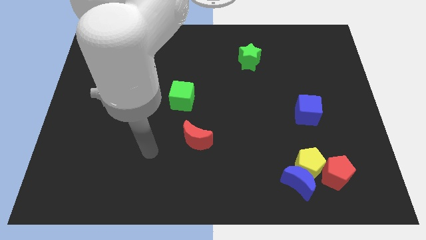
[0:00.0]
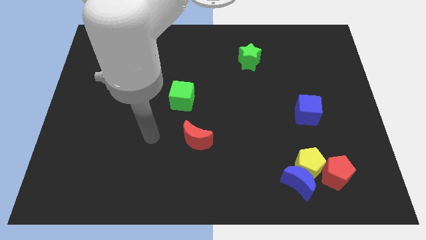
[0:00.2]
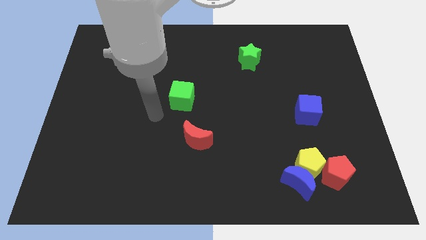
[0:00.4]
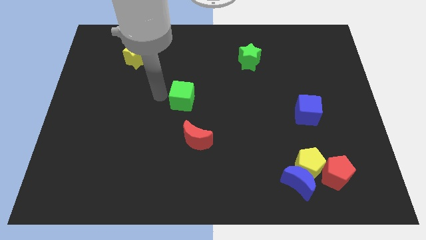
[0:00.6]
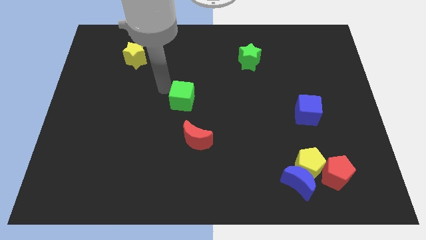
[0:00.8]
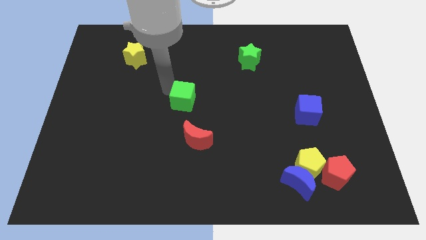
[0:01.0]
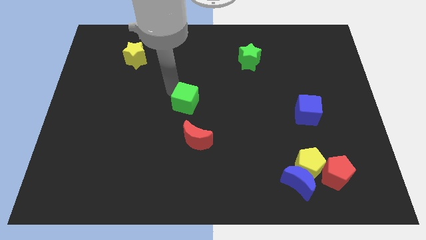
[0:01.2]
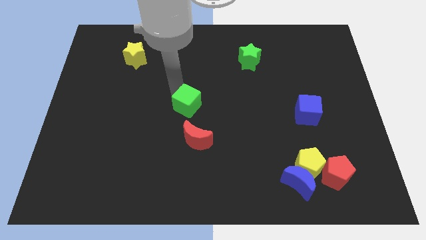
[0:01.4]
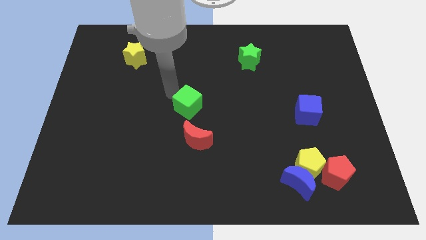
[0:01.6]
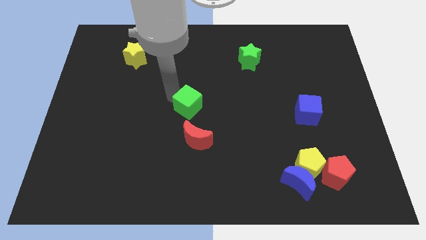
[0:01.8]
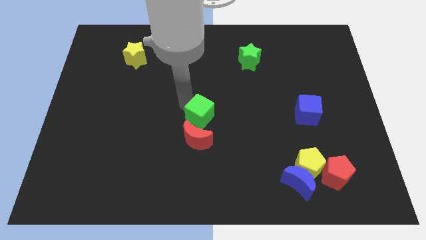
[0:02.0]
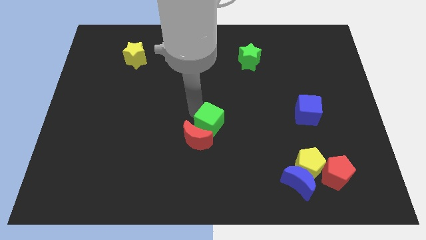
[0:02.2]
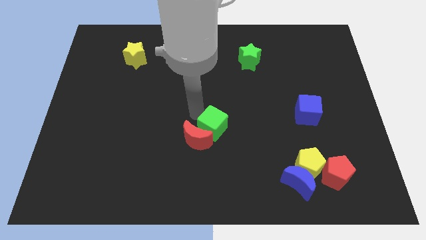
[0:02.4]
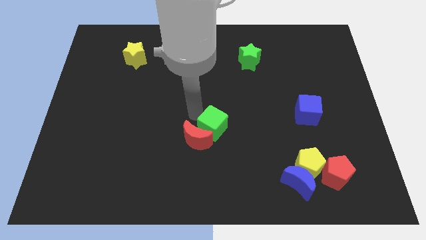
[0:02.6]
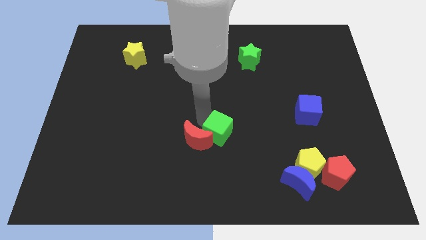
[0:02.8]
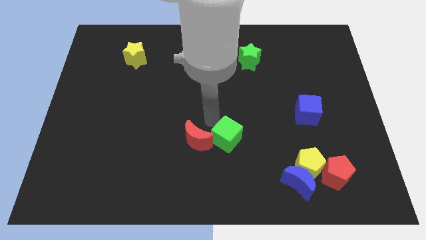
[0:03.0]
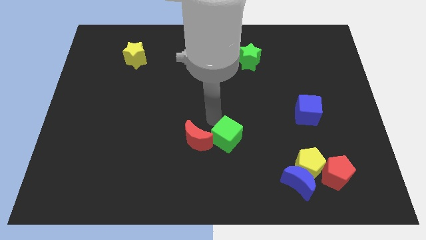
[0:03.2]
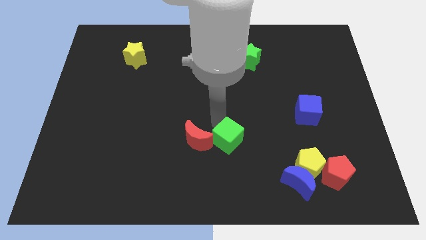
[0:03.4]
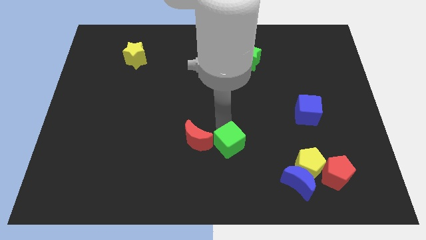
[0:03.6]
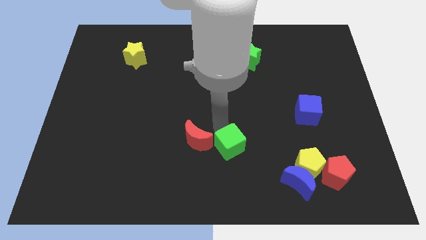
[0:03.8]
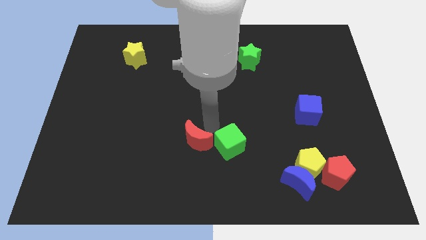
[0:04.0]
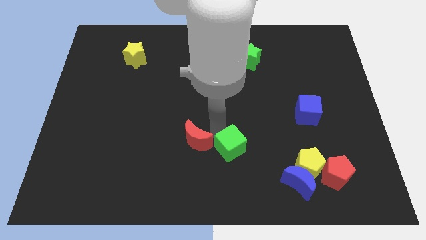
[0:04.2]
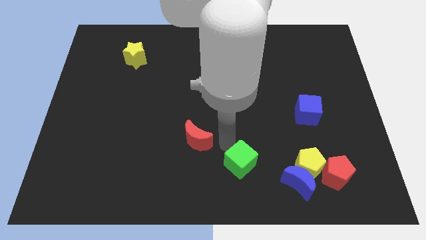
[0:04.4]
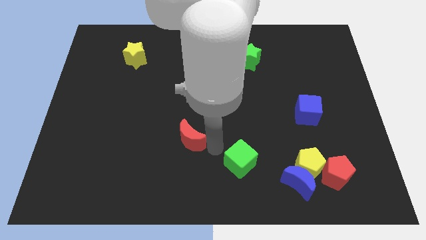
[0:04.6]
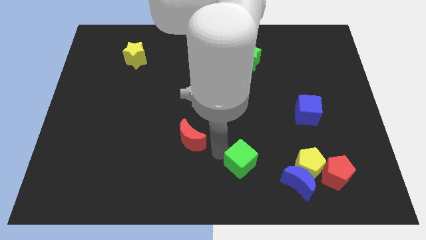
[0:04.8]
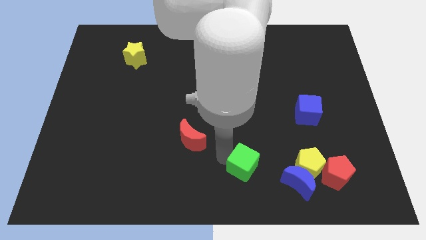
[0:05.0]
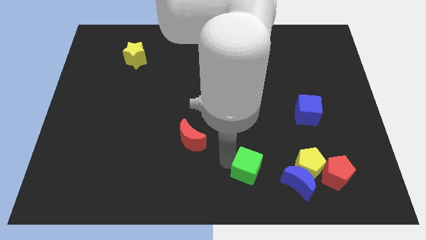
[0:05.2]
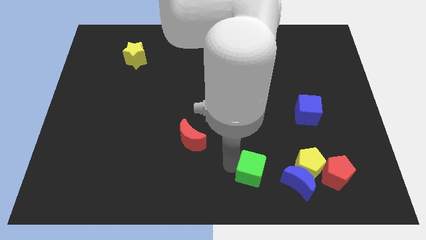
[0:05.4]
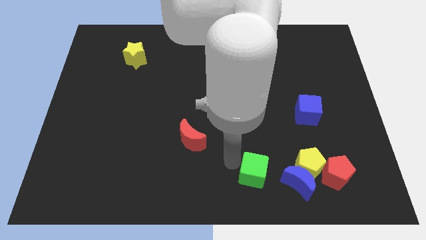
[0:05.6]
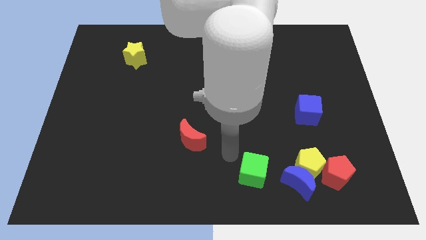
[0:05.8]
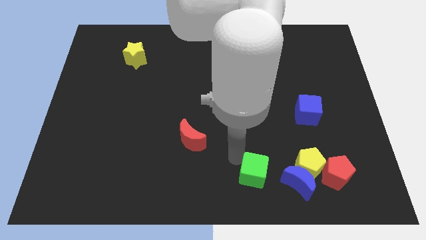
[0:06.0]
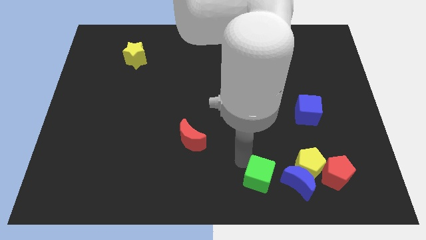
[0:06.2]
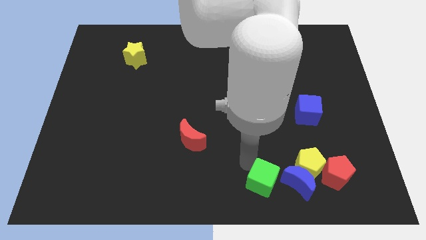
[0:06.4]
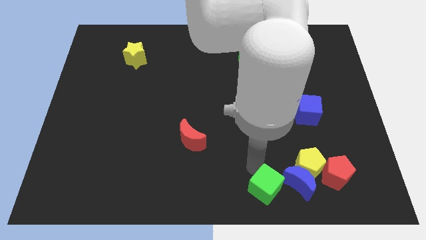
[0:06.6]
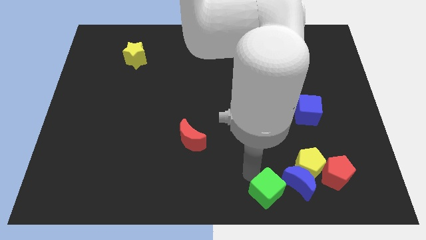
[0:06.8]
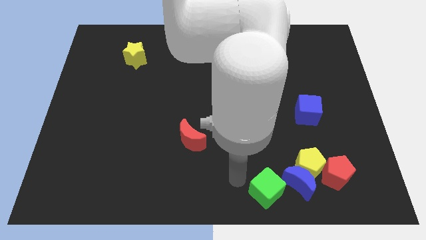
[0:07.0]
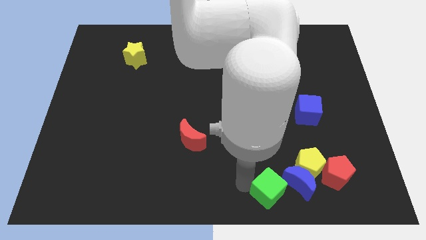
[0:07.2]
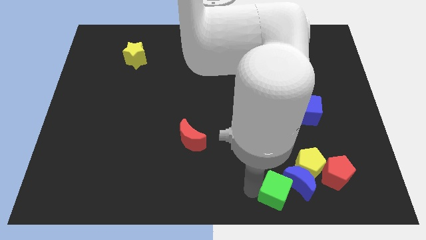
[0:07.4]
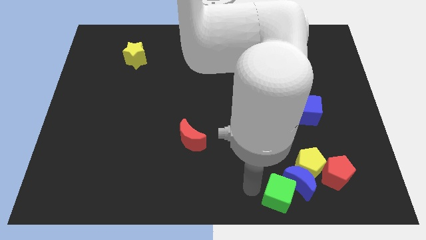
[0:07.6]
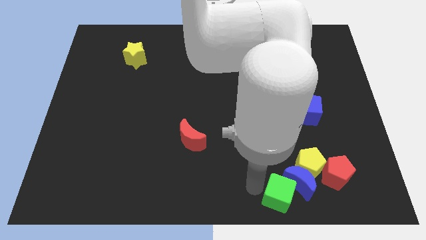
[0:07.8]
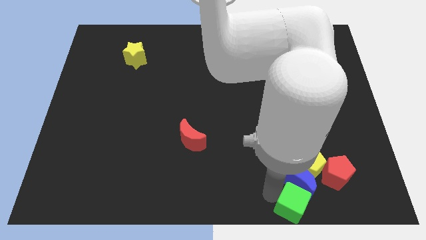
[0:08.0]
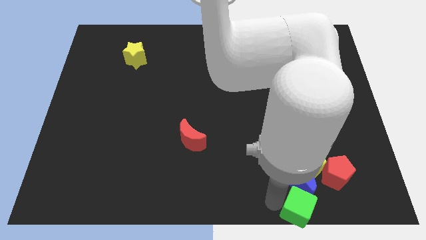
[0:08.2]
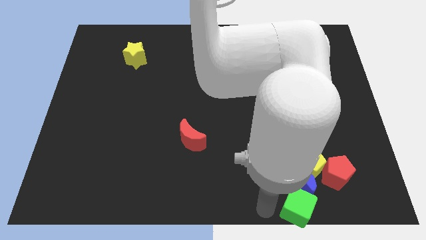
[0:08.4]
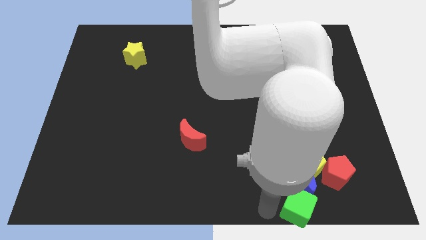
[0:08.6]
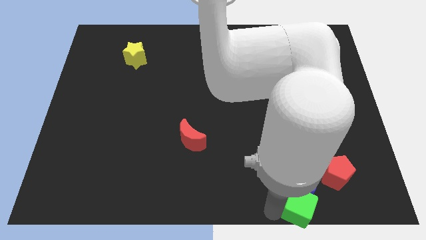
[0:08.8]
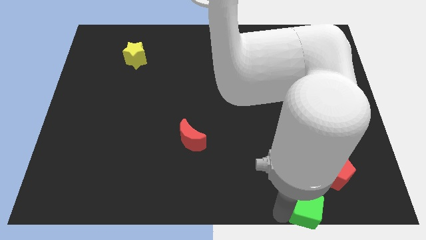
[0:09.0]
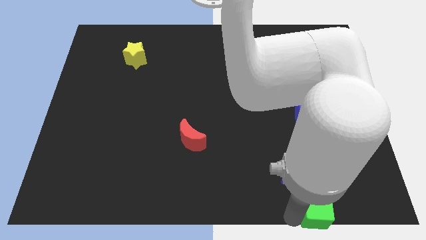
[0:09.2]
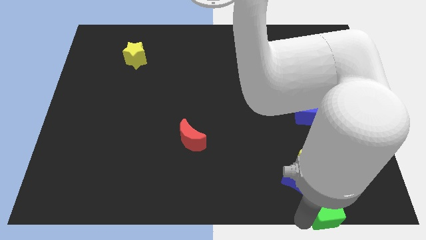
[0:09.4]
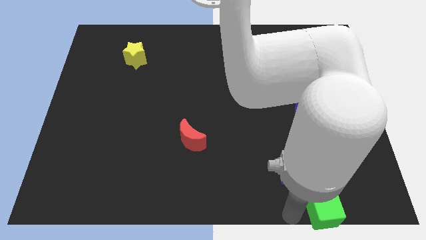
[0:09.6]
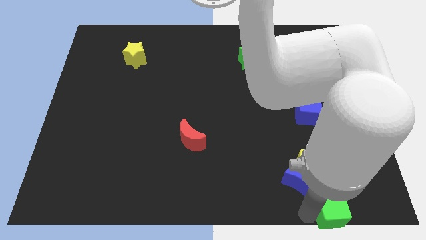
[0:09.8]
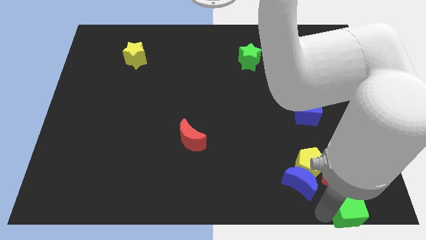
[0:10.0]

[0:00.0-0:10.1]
put the green cube to the bottom right

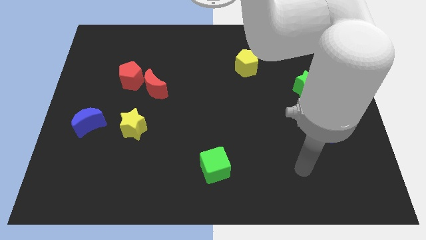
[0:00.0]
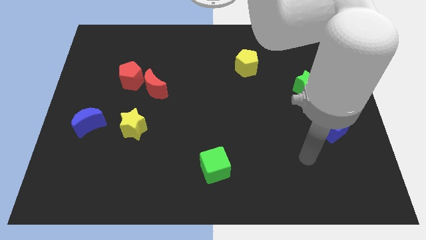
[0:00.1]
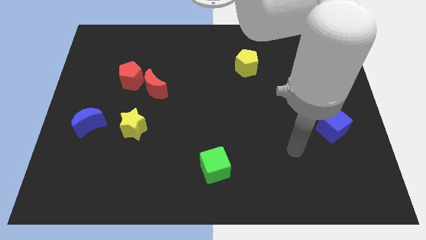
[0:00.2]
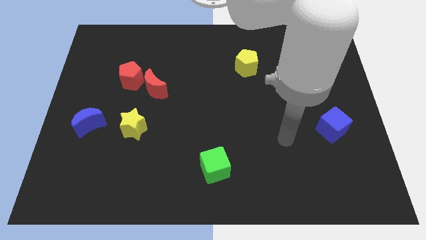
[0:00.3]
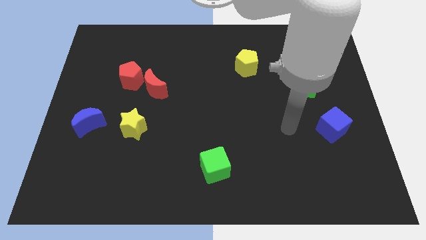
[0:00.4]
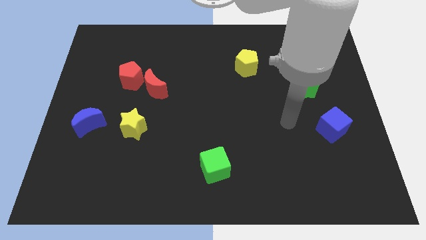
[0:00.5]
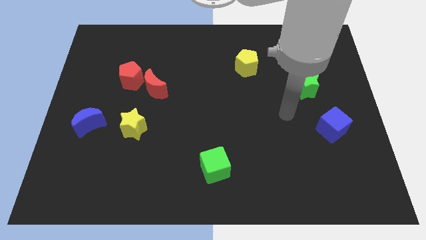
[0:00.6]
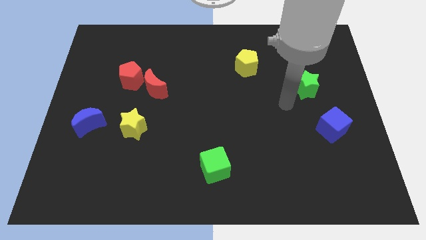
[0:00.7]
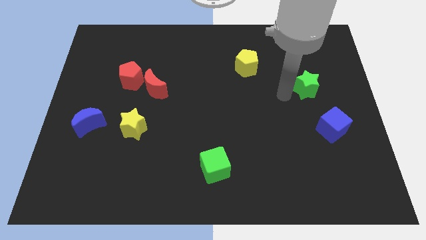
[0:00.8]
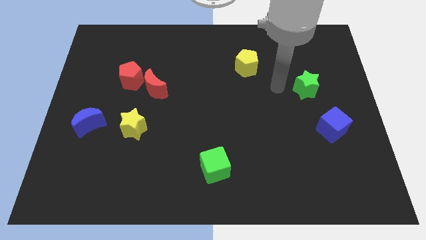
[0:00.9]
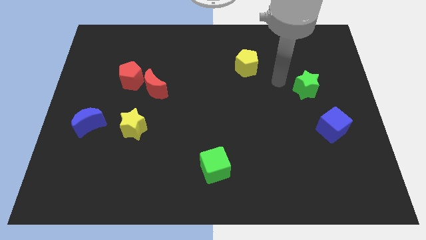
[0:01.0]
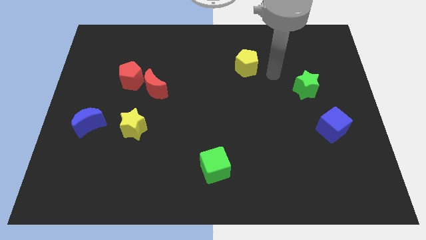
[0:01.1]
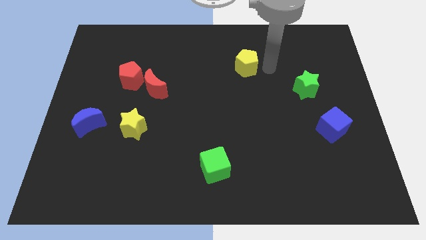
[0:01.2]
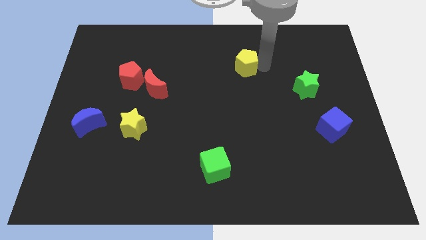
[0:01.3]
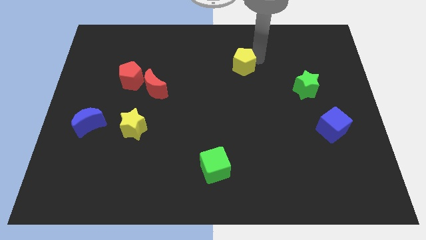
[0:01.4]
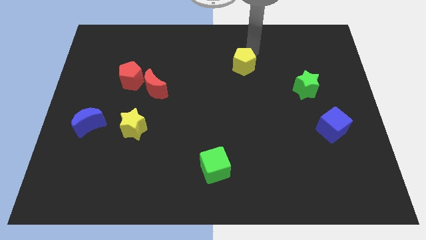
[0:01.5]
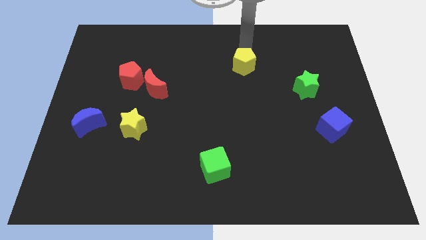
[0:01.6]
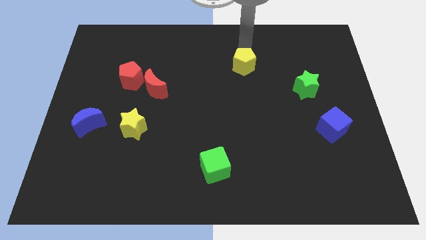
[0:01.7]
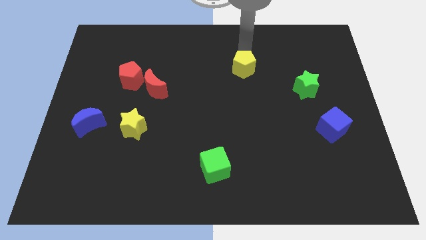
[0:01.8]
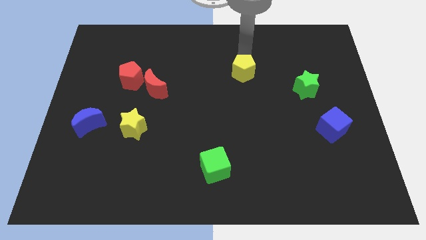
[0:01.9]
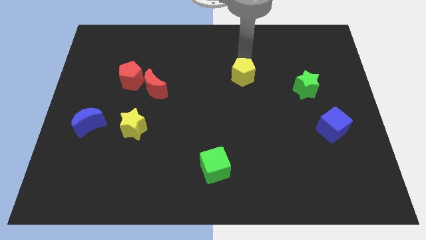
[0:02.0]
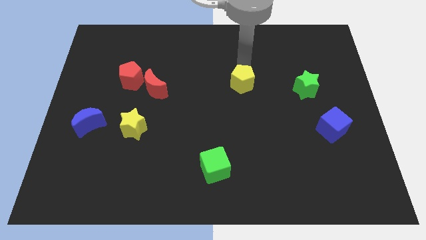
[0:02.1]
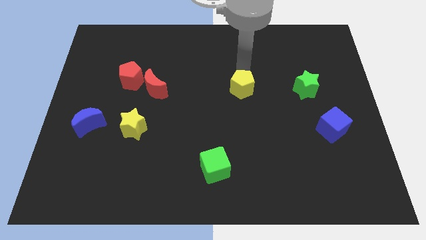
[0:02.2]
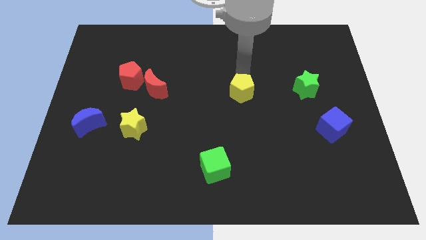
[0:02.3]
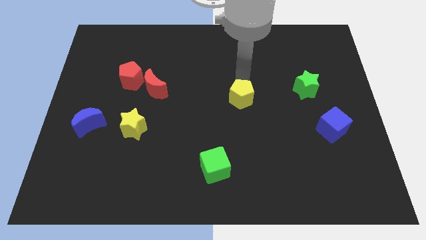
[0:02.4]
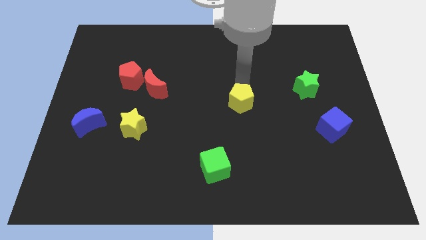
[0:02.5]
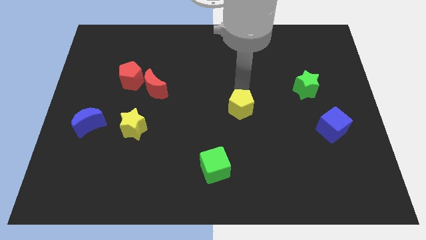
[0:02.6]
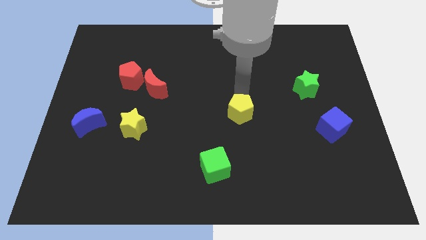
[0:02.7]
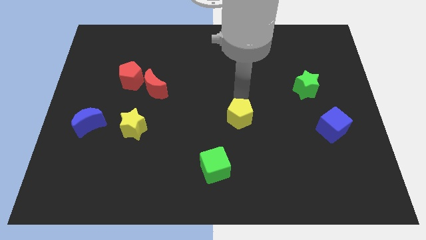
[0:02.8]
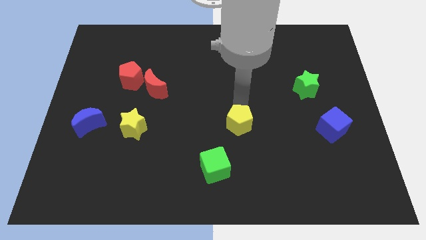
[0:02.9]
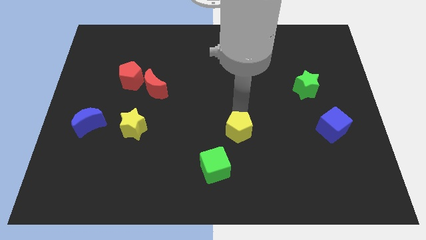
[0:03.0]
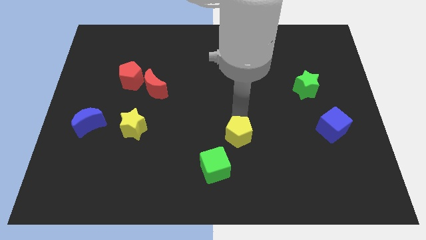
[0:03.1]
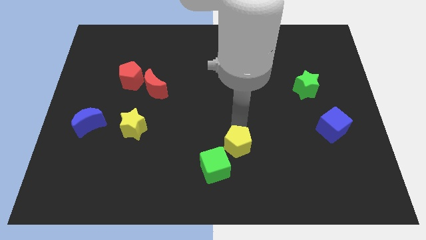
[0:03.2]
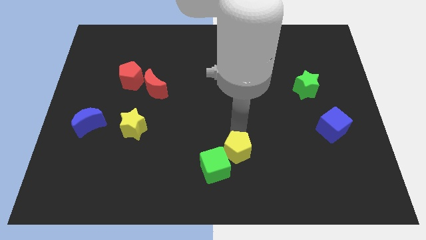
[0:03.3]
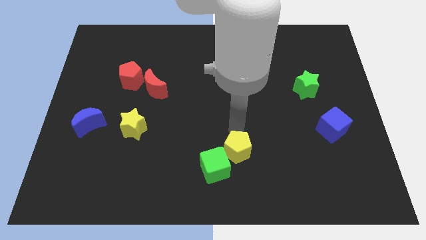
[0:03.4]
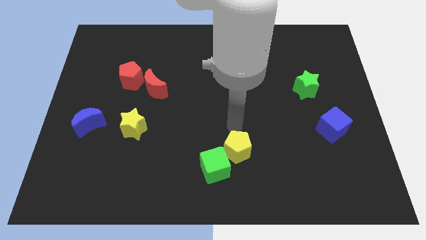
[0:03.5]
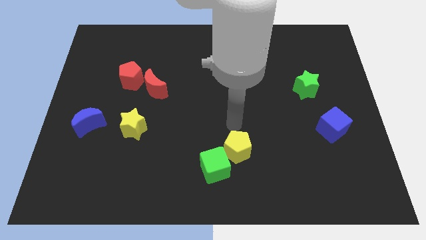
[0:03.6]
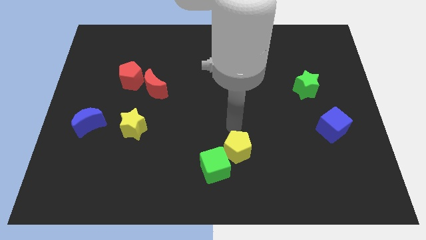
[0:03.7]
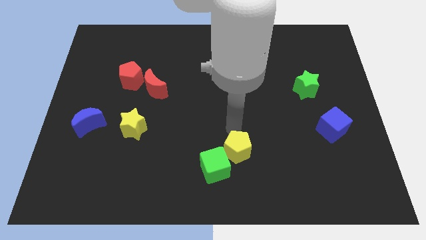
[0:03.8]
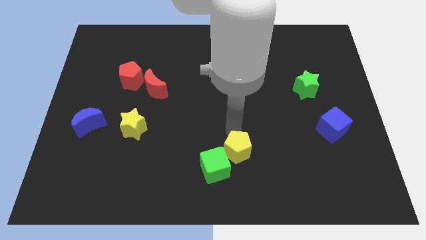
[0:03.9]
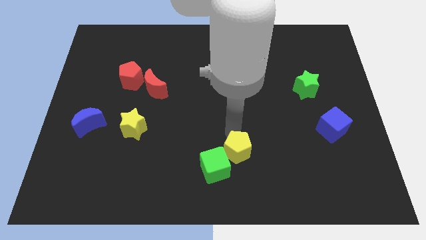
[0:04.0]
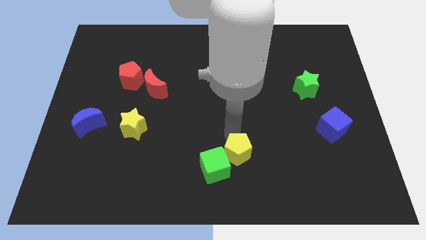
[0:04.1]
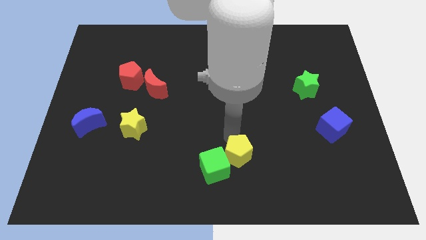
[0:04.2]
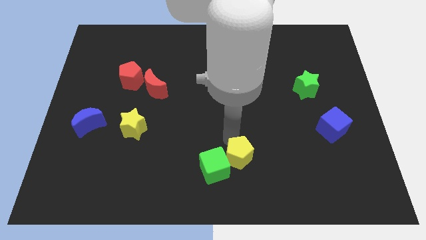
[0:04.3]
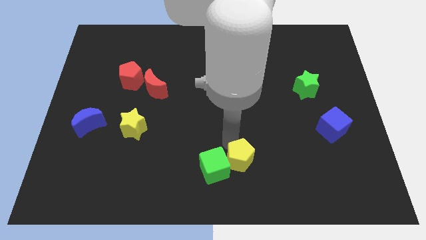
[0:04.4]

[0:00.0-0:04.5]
put the yellow pentagon to the bottom
